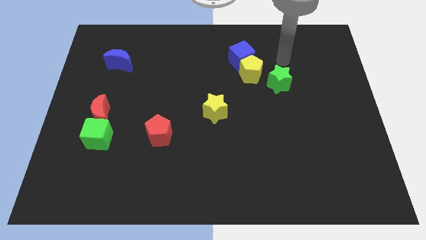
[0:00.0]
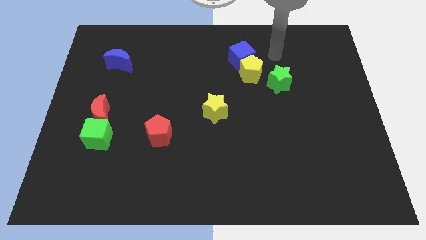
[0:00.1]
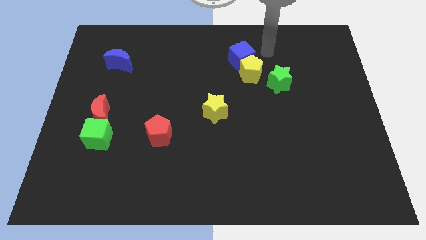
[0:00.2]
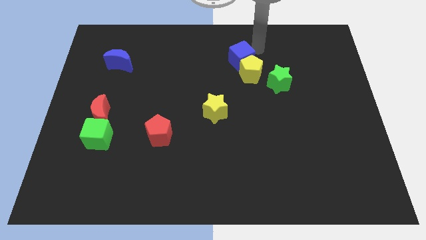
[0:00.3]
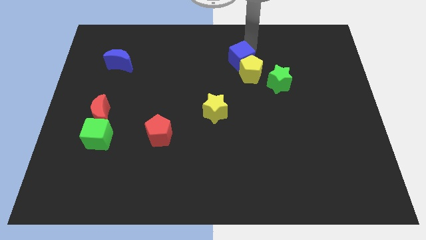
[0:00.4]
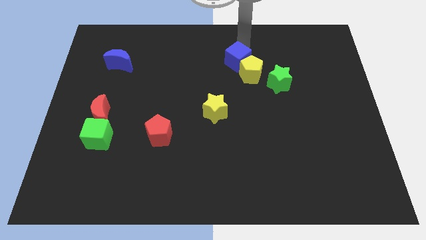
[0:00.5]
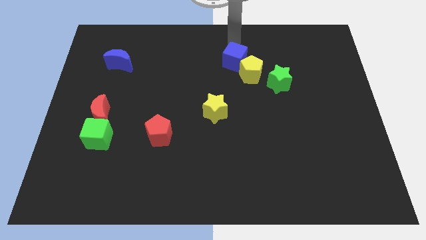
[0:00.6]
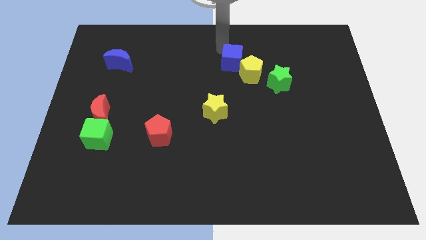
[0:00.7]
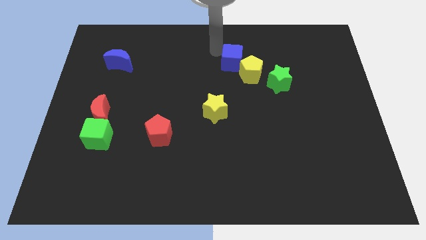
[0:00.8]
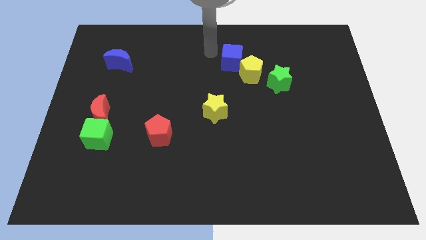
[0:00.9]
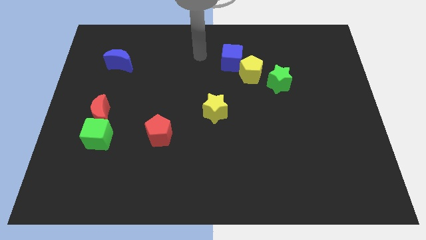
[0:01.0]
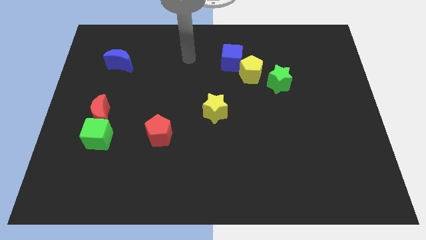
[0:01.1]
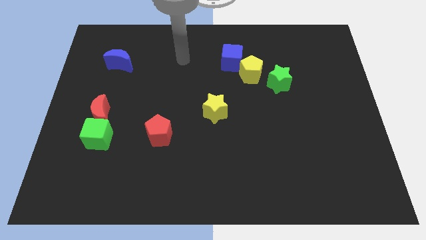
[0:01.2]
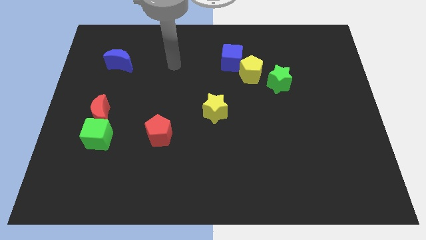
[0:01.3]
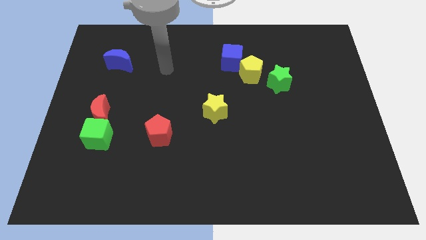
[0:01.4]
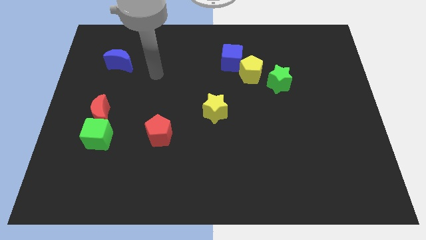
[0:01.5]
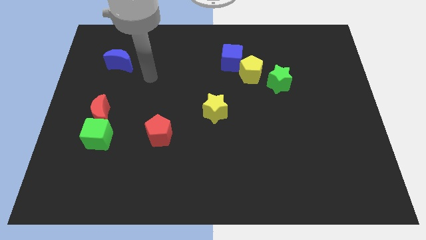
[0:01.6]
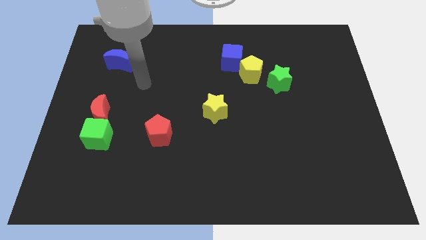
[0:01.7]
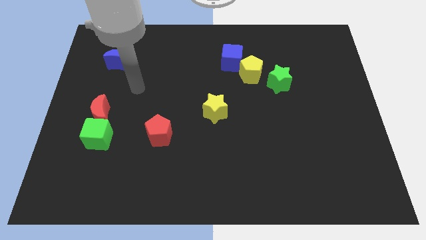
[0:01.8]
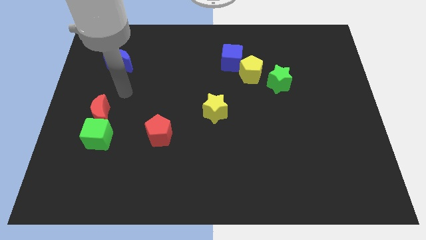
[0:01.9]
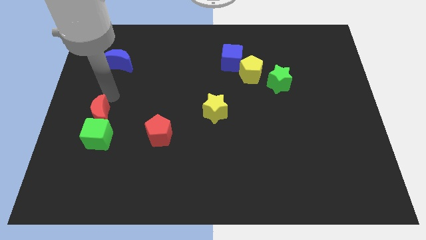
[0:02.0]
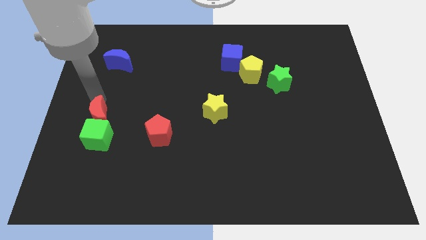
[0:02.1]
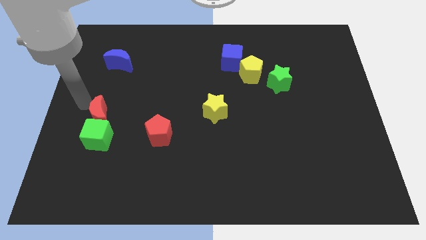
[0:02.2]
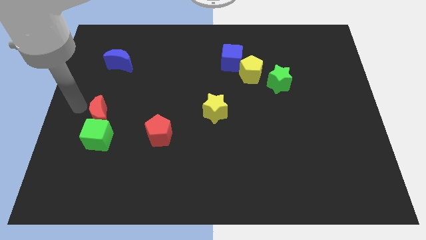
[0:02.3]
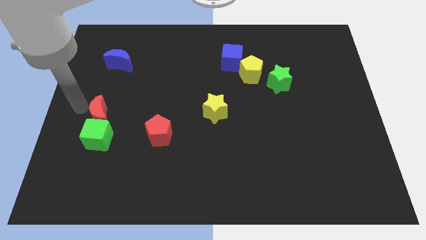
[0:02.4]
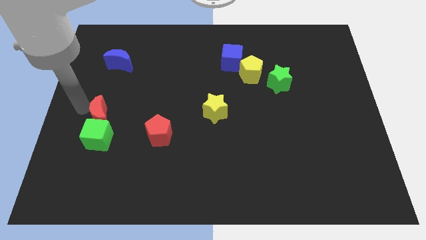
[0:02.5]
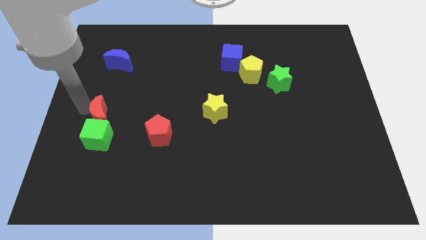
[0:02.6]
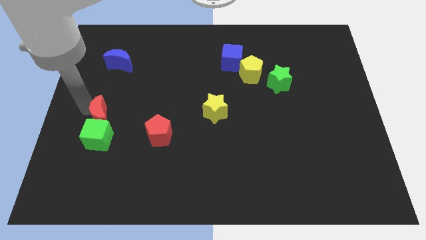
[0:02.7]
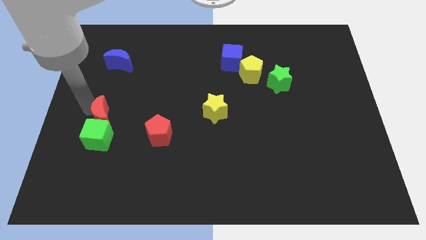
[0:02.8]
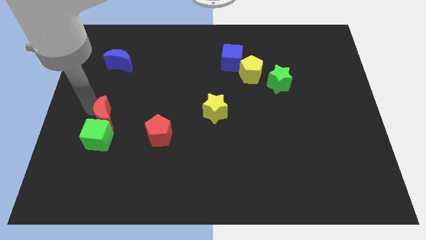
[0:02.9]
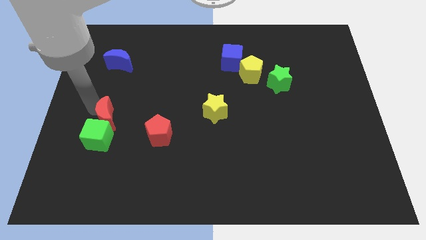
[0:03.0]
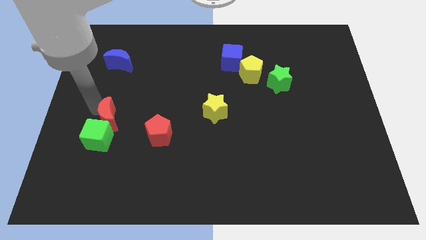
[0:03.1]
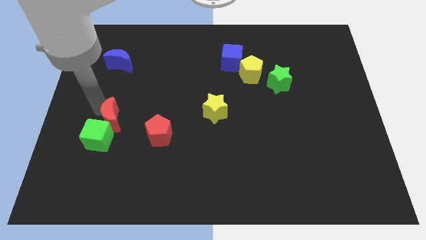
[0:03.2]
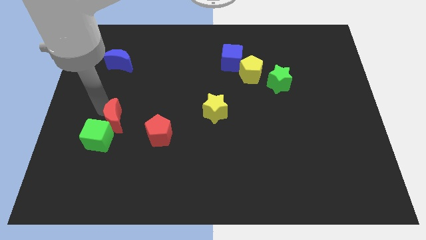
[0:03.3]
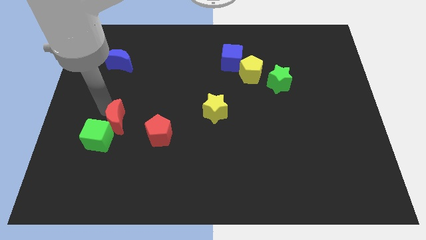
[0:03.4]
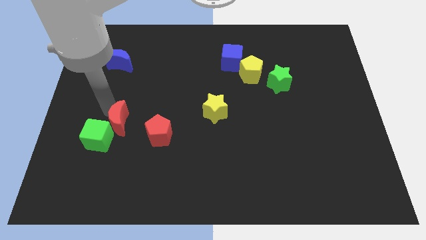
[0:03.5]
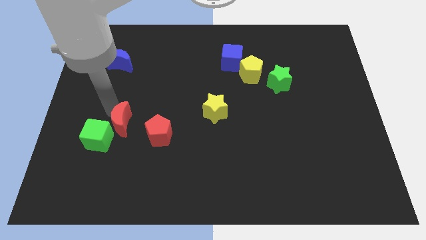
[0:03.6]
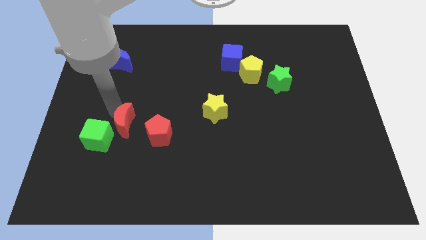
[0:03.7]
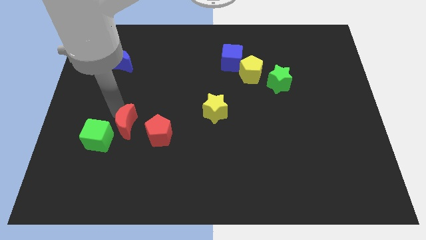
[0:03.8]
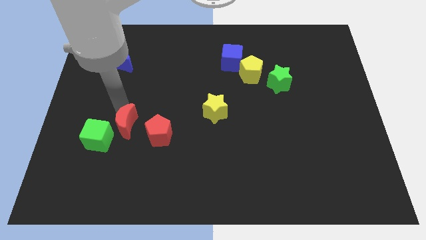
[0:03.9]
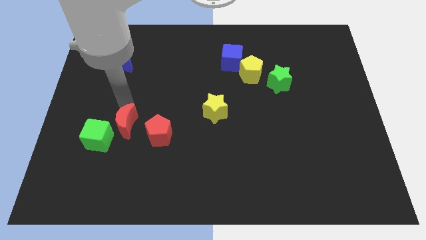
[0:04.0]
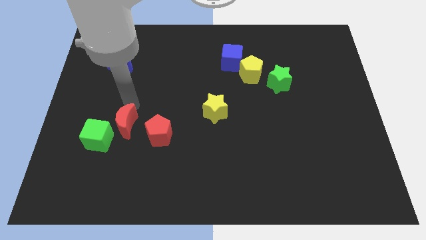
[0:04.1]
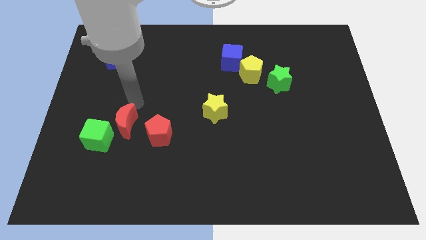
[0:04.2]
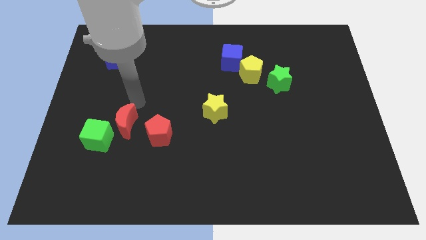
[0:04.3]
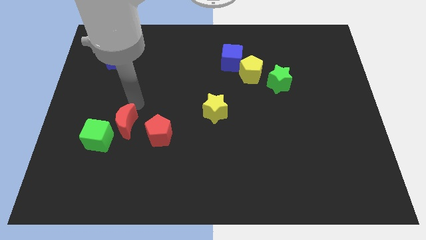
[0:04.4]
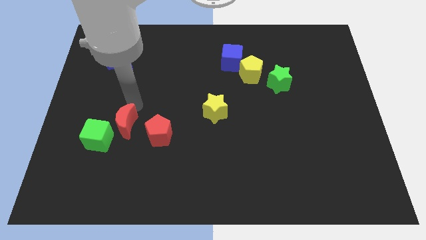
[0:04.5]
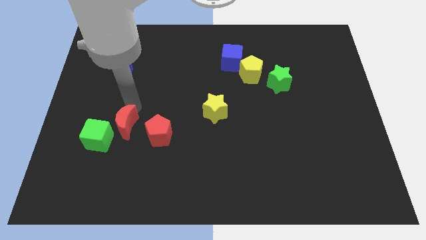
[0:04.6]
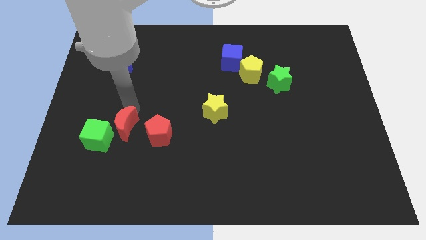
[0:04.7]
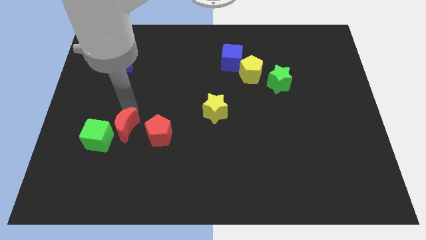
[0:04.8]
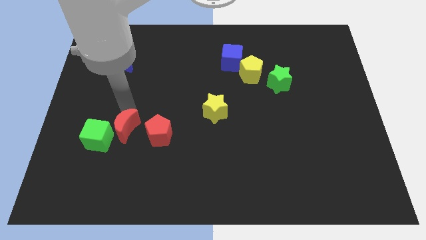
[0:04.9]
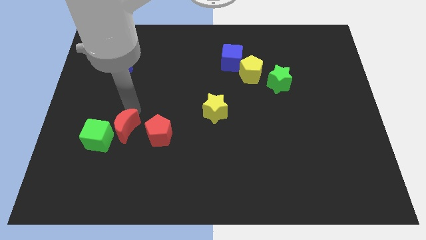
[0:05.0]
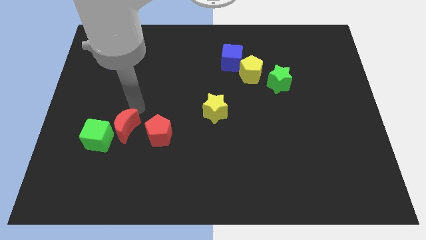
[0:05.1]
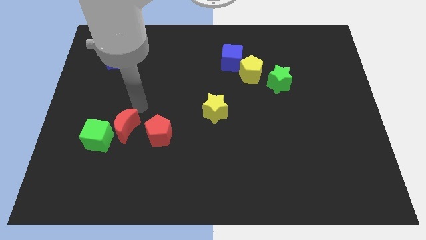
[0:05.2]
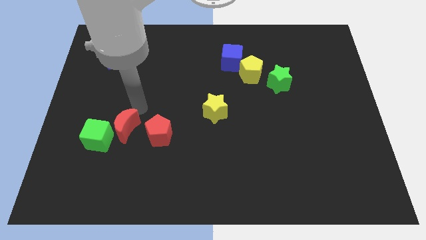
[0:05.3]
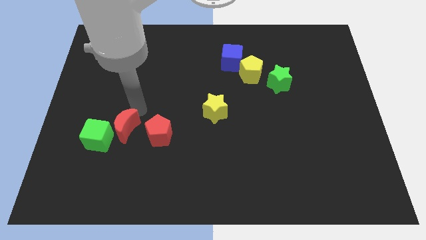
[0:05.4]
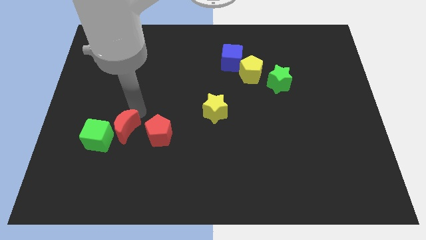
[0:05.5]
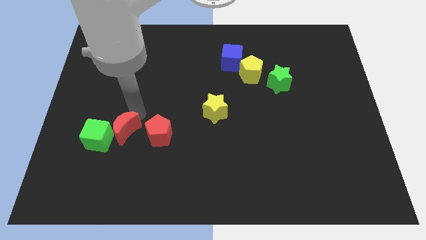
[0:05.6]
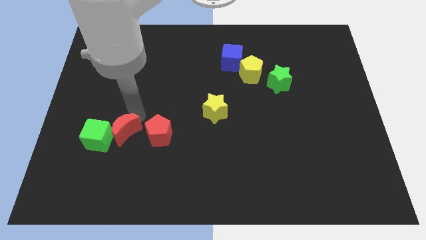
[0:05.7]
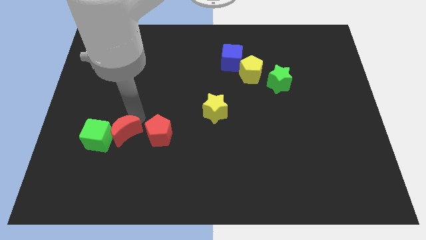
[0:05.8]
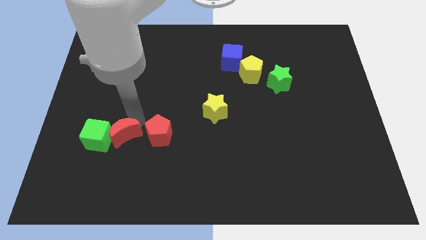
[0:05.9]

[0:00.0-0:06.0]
push the red moon to the bottom right side of the green cube

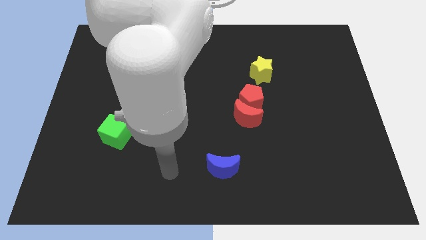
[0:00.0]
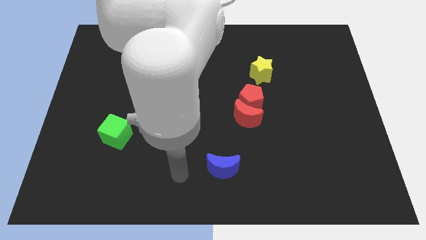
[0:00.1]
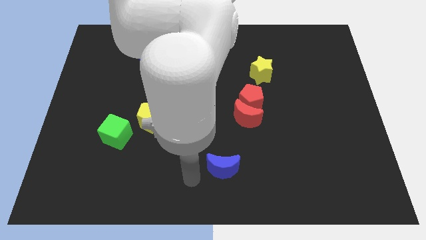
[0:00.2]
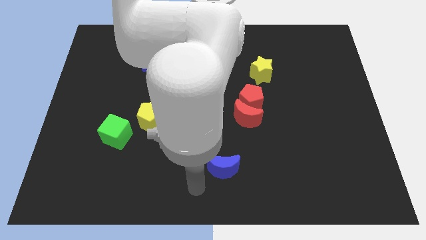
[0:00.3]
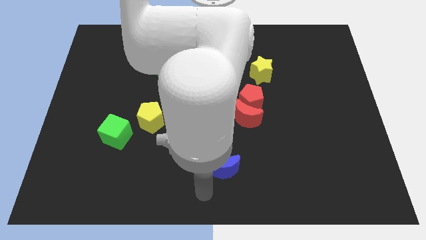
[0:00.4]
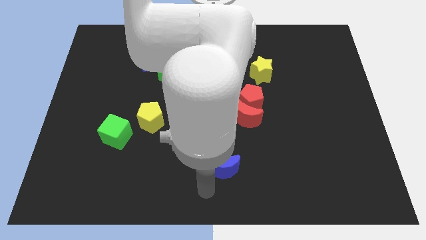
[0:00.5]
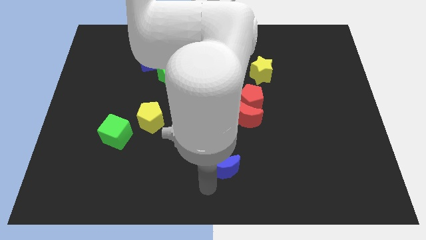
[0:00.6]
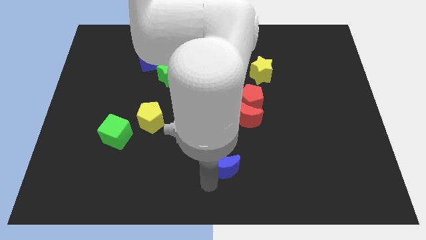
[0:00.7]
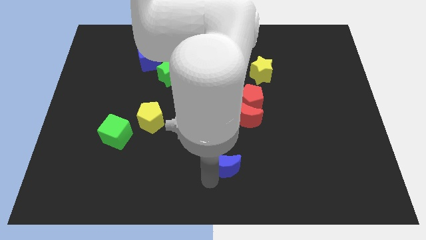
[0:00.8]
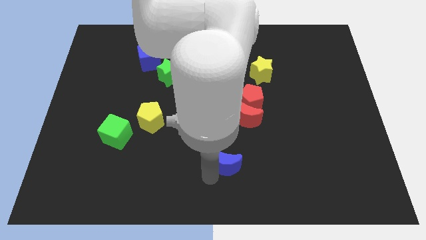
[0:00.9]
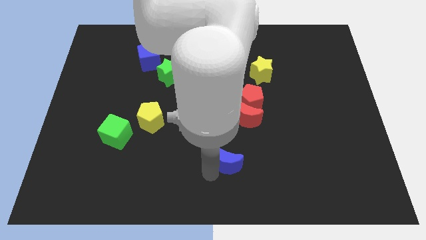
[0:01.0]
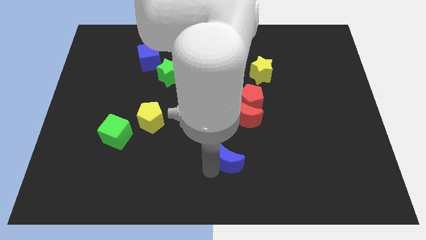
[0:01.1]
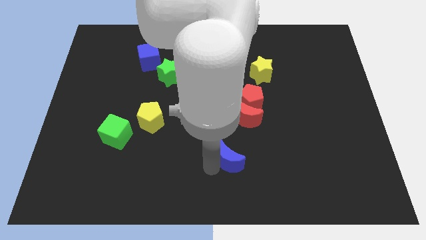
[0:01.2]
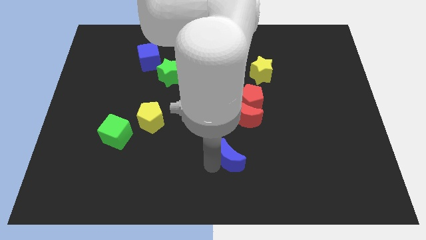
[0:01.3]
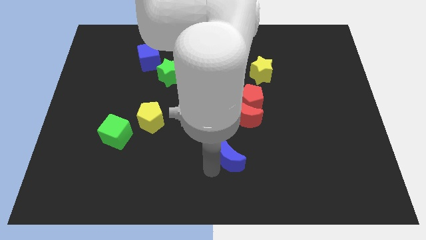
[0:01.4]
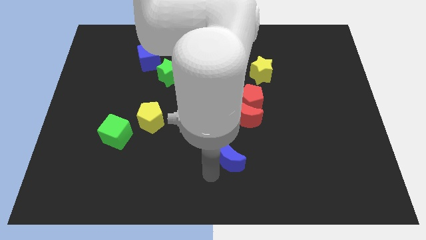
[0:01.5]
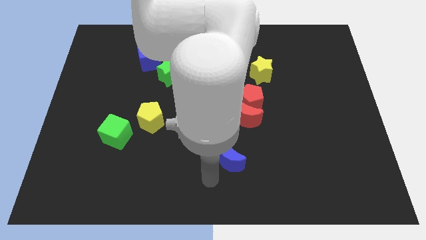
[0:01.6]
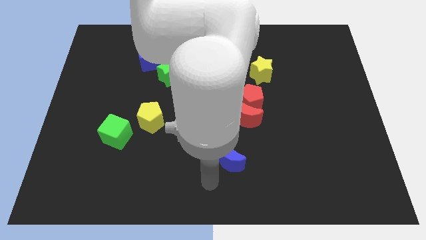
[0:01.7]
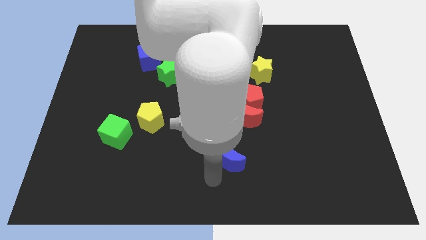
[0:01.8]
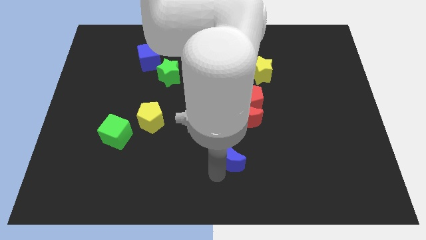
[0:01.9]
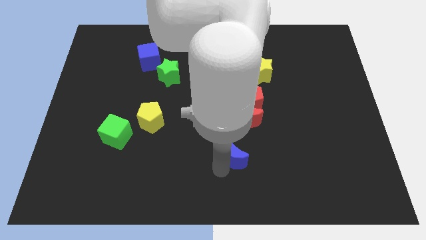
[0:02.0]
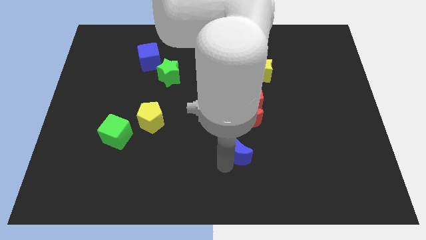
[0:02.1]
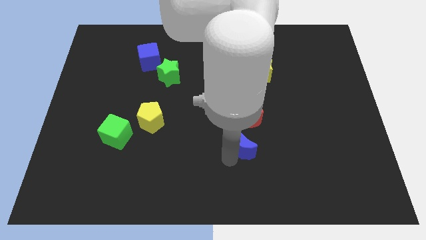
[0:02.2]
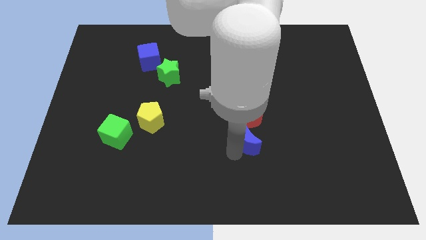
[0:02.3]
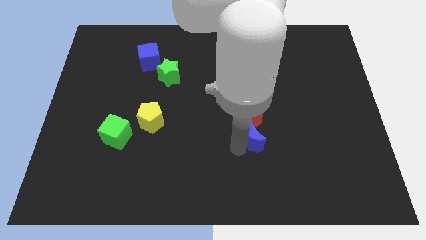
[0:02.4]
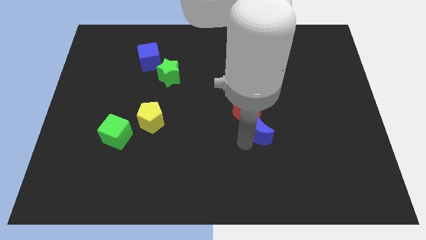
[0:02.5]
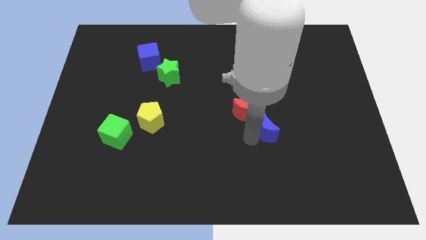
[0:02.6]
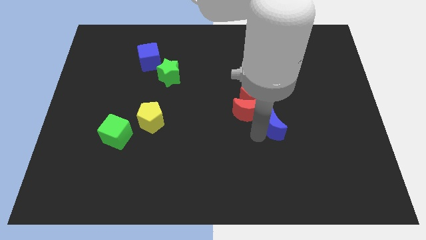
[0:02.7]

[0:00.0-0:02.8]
slide the blue moon to the bottom right of the red pentagon
